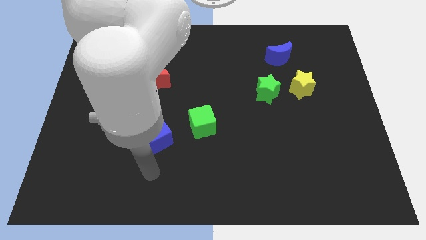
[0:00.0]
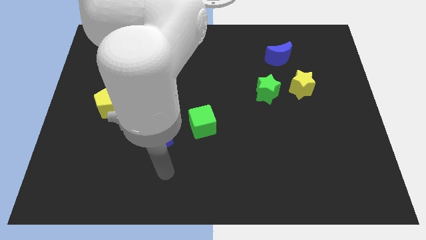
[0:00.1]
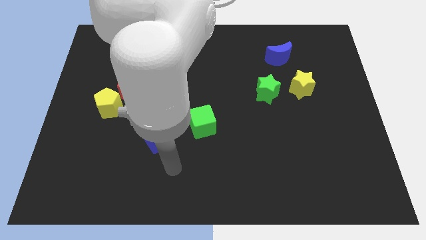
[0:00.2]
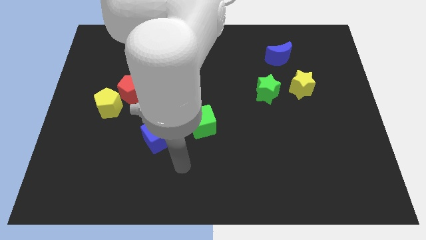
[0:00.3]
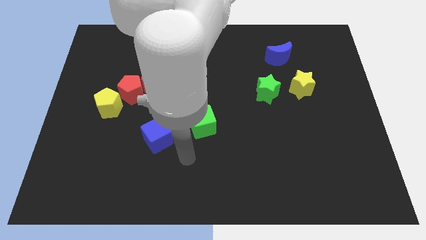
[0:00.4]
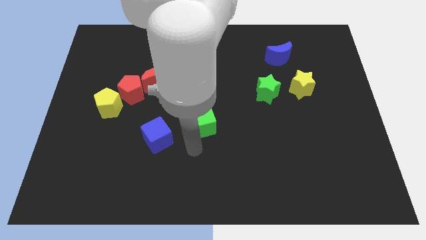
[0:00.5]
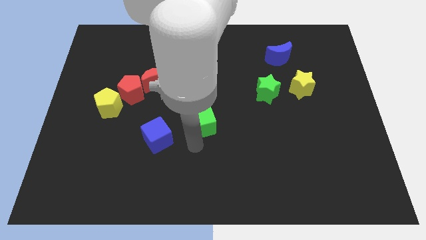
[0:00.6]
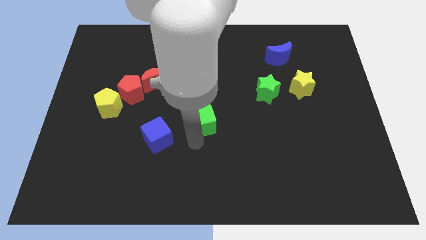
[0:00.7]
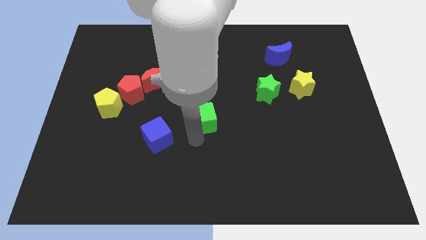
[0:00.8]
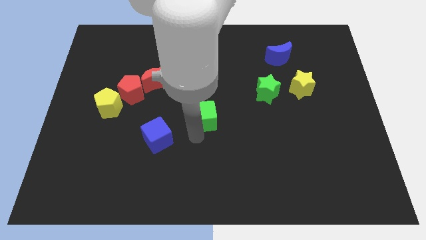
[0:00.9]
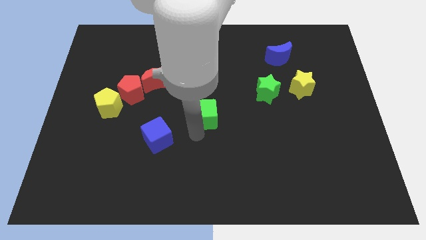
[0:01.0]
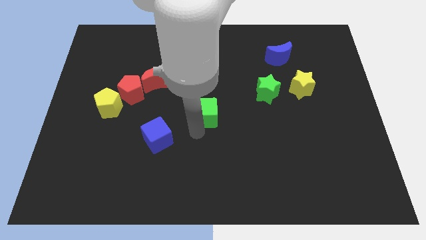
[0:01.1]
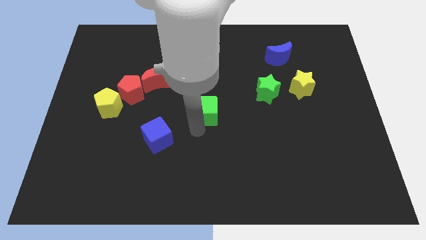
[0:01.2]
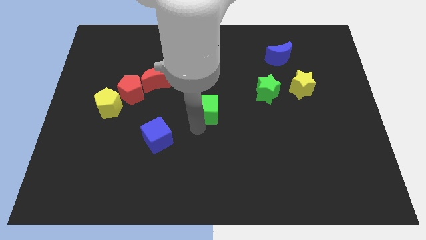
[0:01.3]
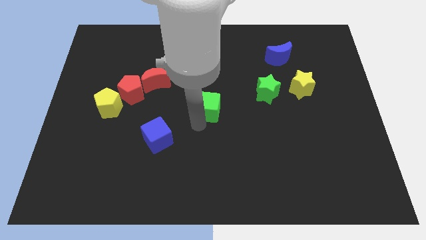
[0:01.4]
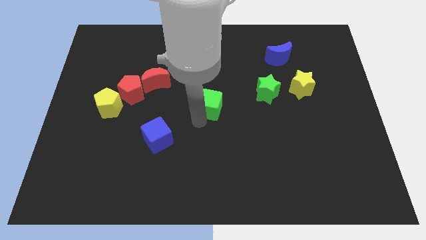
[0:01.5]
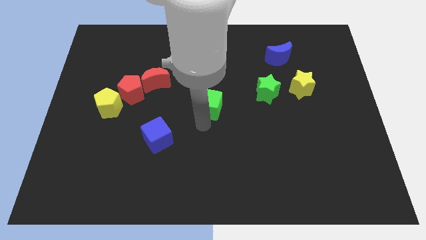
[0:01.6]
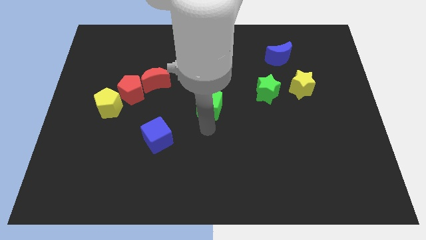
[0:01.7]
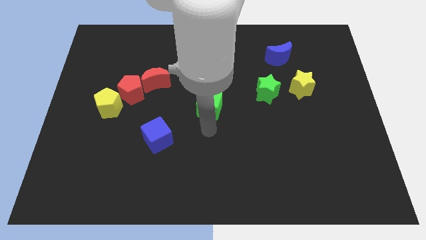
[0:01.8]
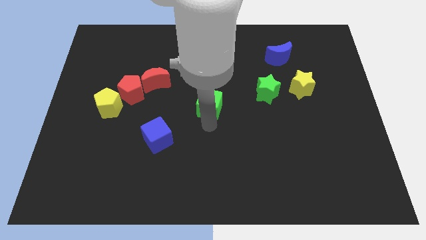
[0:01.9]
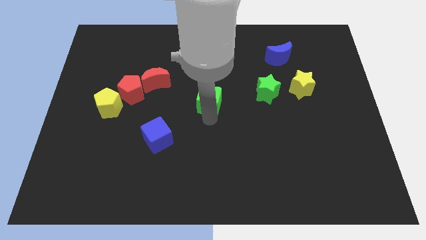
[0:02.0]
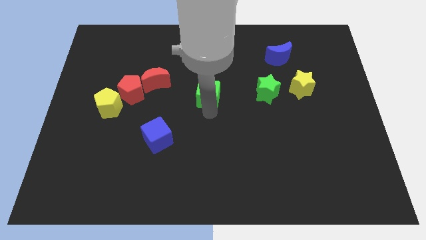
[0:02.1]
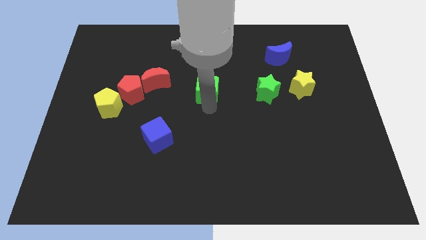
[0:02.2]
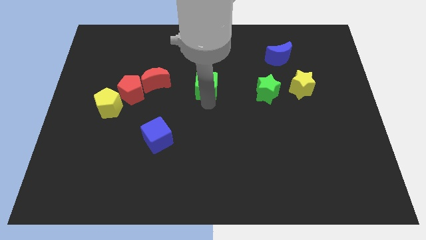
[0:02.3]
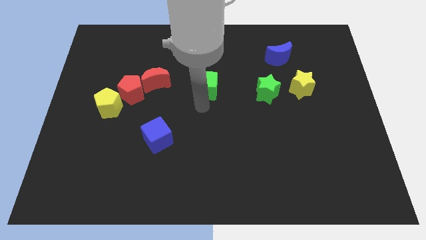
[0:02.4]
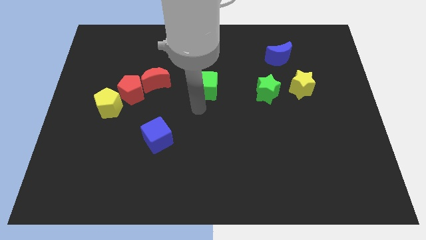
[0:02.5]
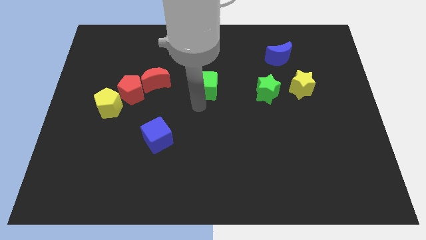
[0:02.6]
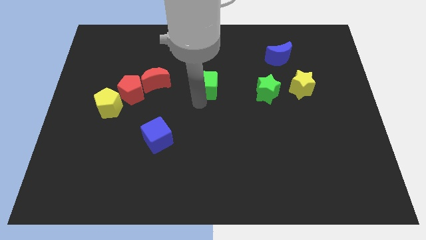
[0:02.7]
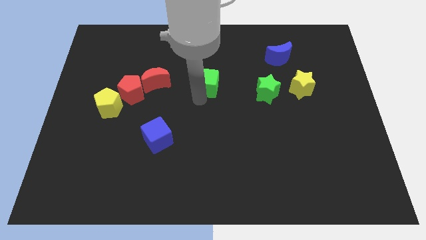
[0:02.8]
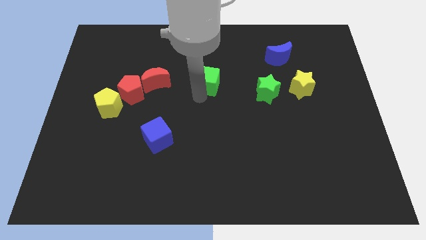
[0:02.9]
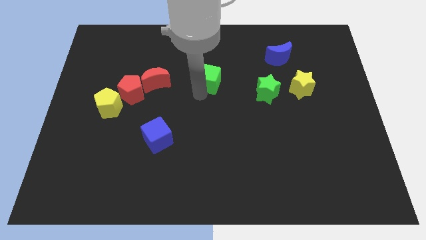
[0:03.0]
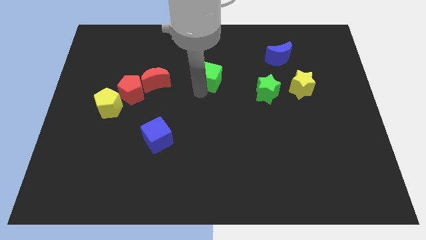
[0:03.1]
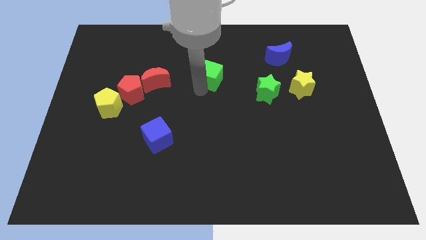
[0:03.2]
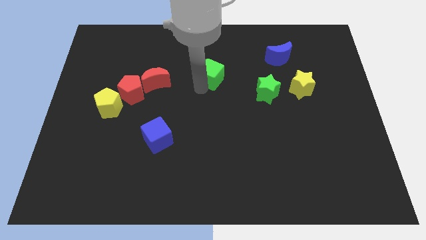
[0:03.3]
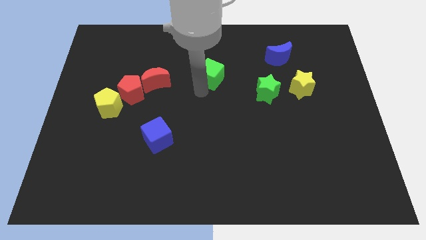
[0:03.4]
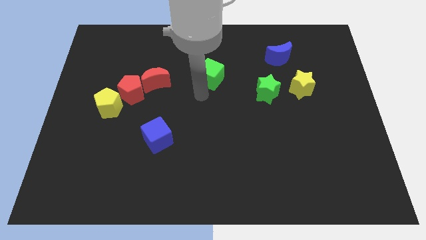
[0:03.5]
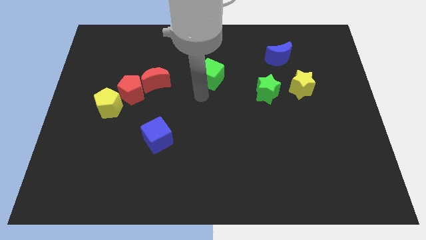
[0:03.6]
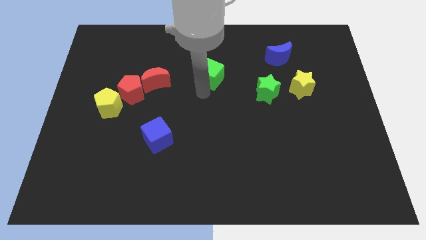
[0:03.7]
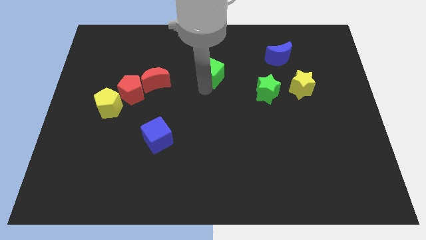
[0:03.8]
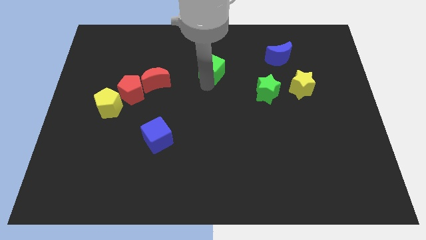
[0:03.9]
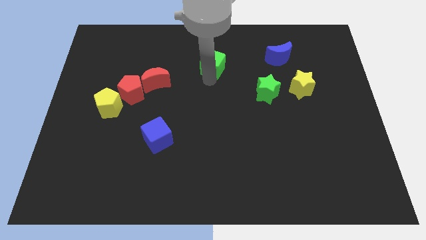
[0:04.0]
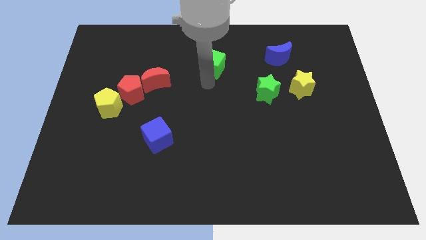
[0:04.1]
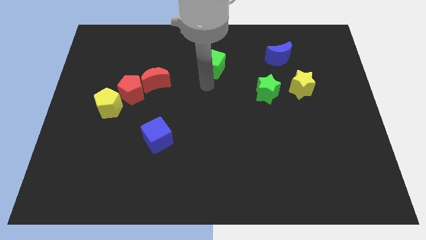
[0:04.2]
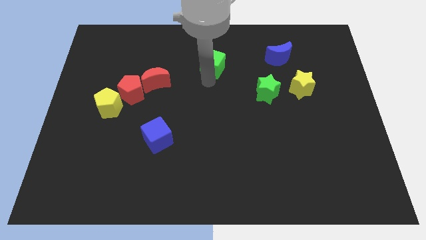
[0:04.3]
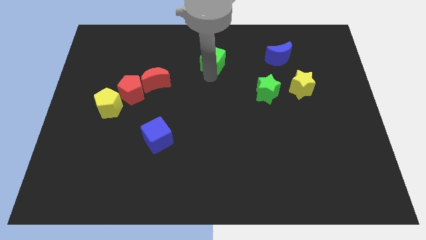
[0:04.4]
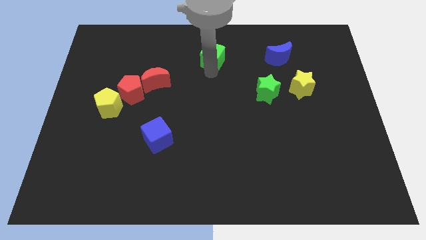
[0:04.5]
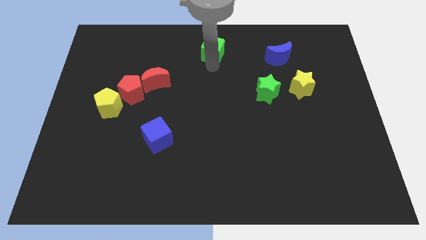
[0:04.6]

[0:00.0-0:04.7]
push the green cube to the towards your base

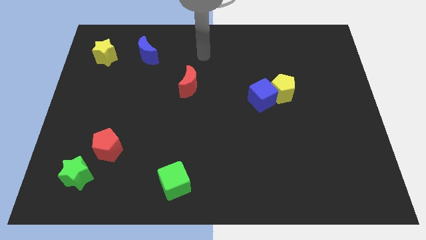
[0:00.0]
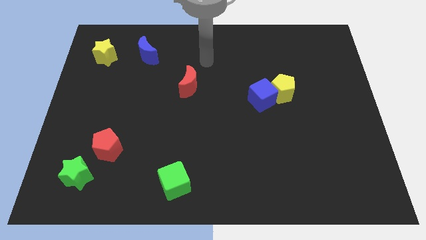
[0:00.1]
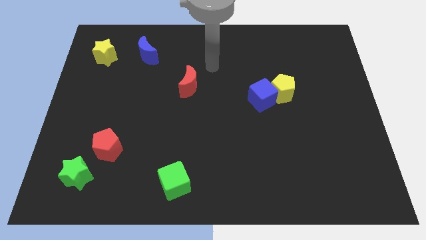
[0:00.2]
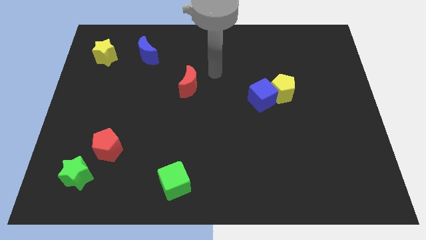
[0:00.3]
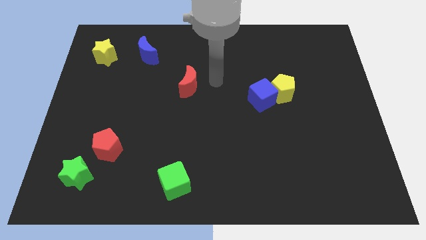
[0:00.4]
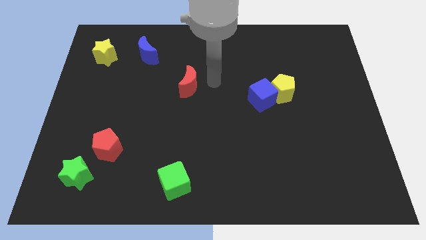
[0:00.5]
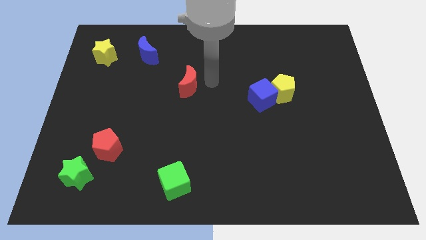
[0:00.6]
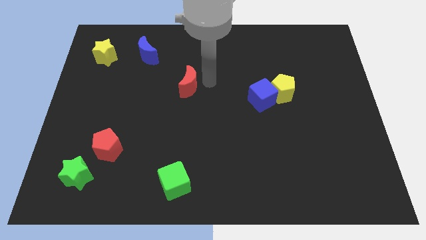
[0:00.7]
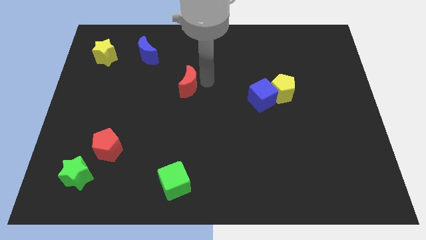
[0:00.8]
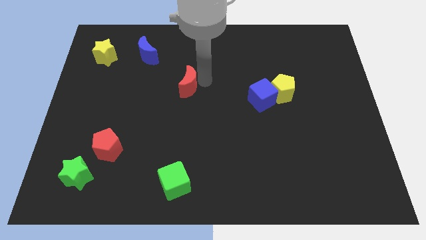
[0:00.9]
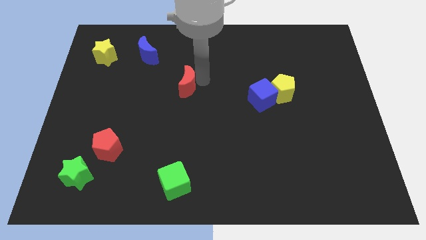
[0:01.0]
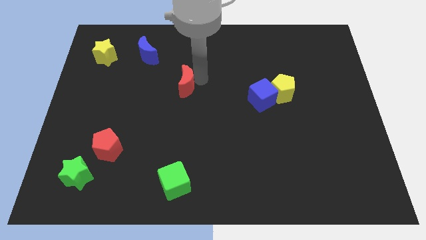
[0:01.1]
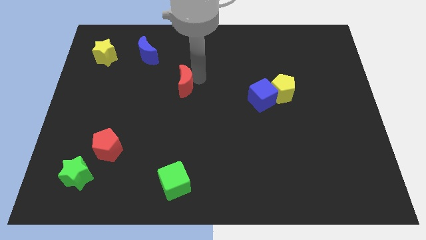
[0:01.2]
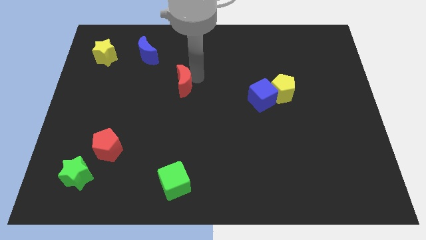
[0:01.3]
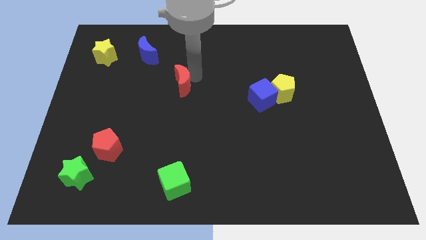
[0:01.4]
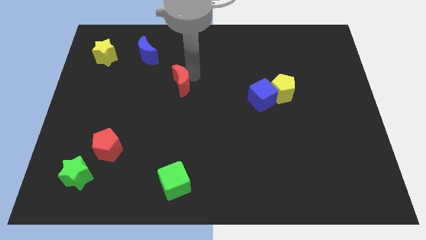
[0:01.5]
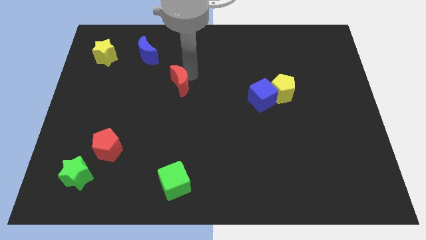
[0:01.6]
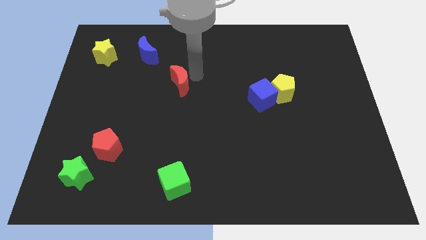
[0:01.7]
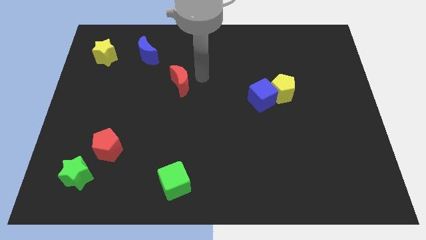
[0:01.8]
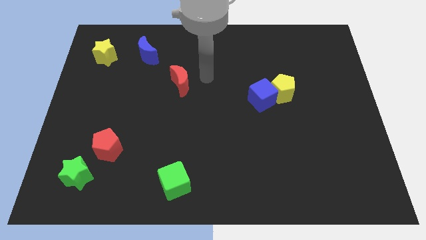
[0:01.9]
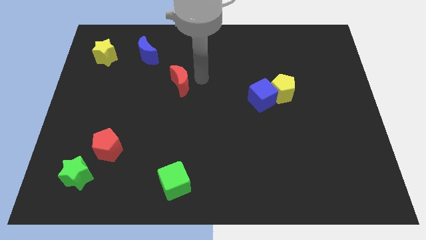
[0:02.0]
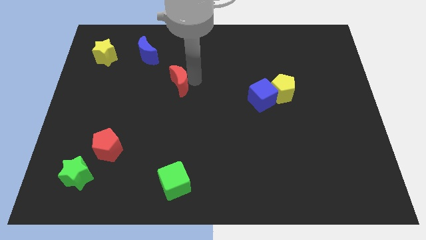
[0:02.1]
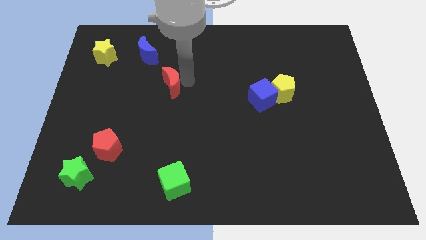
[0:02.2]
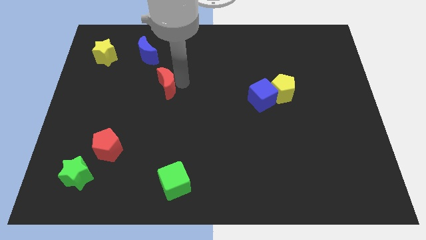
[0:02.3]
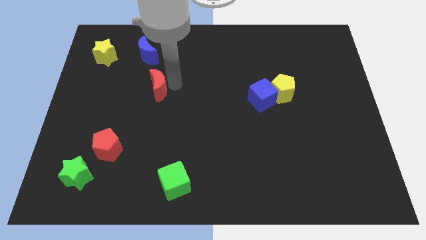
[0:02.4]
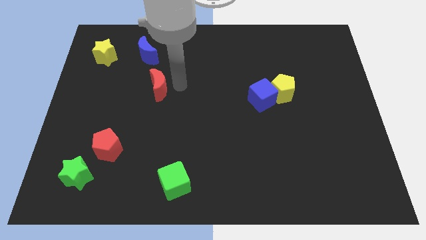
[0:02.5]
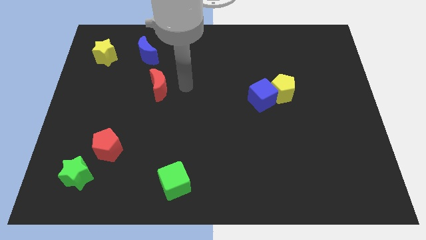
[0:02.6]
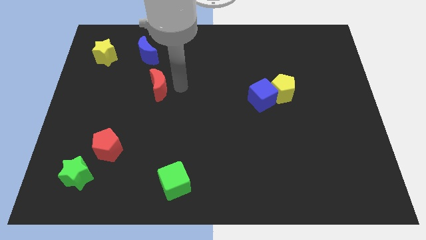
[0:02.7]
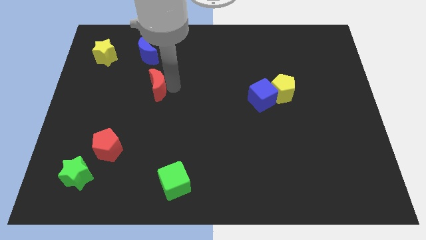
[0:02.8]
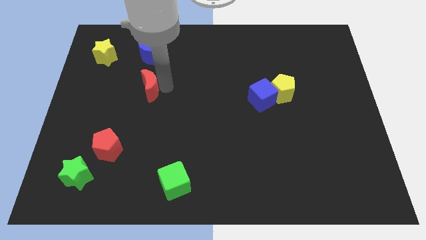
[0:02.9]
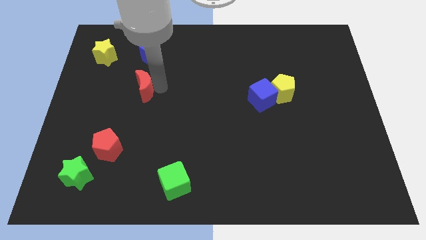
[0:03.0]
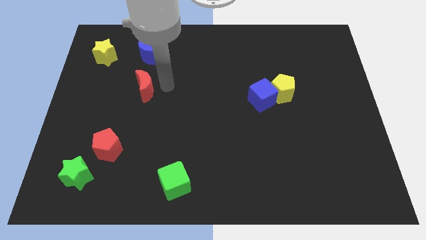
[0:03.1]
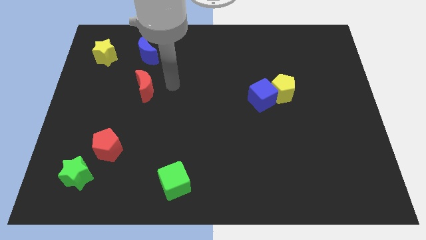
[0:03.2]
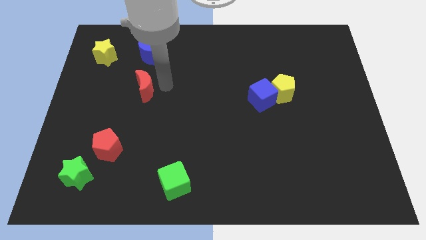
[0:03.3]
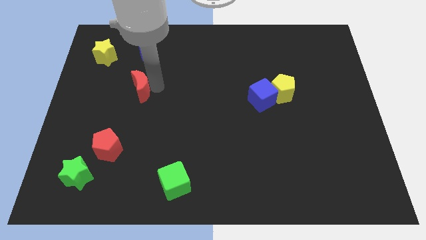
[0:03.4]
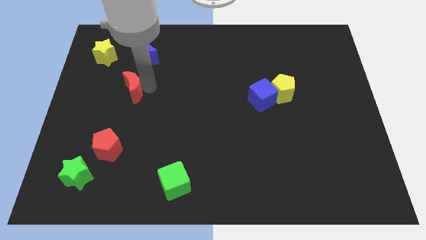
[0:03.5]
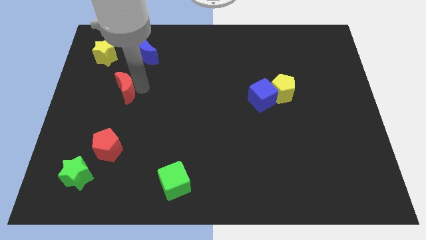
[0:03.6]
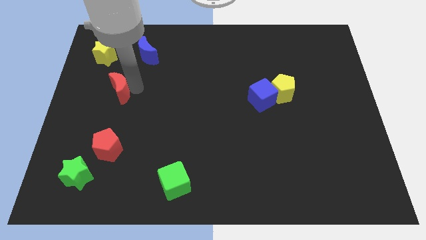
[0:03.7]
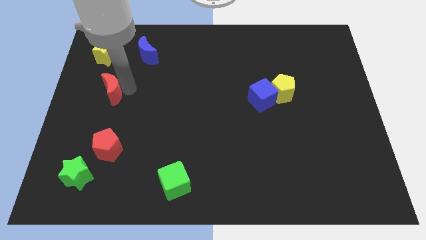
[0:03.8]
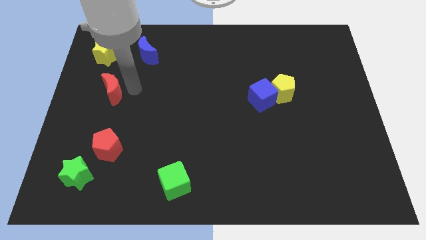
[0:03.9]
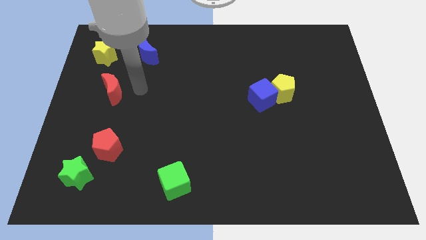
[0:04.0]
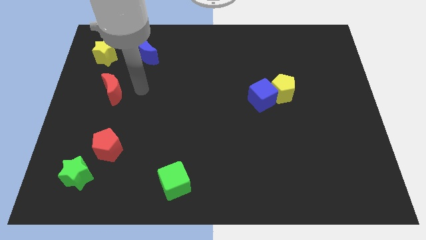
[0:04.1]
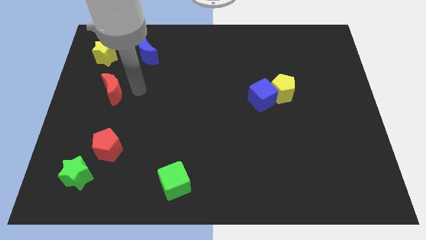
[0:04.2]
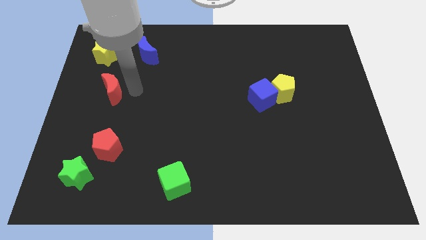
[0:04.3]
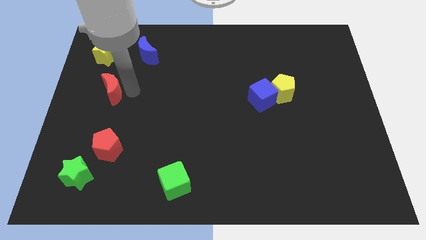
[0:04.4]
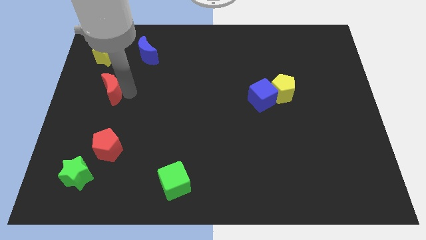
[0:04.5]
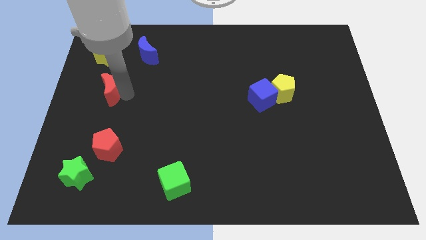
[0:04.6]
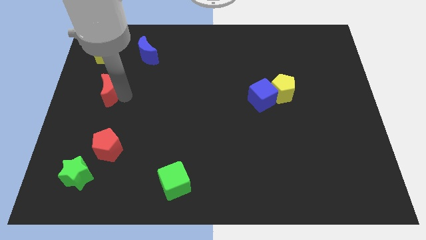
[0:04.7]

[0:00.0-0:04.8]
push the red moon to the left side
